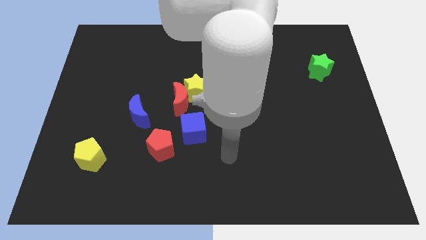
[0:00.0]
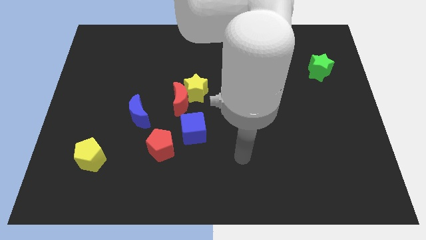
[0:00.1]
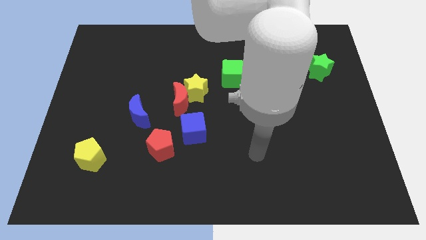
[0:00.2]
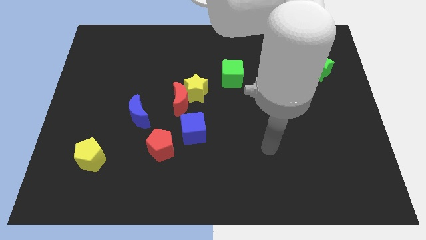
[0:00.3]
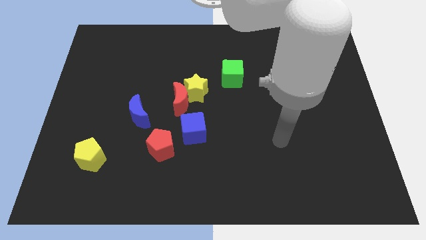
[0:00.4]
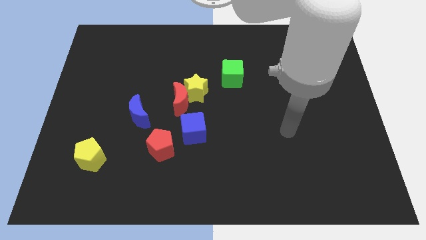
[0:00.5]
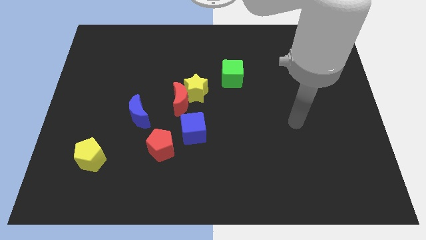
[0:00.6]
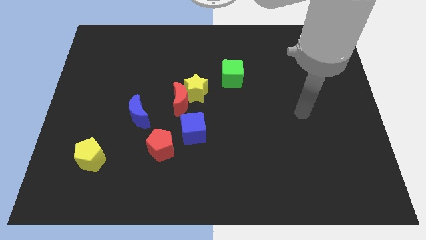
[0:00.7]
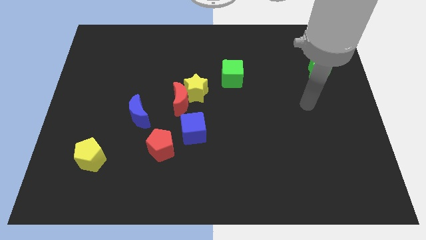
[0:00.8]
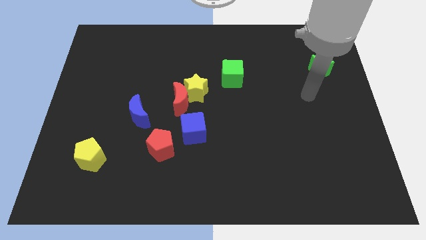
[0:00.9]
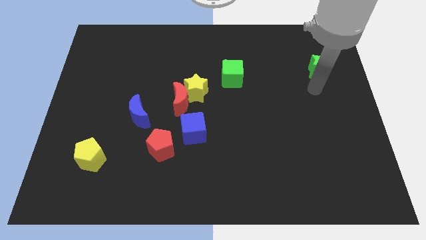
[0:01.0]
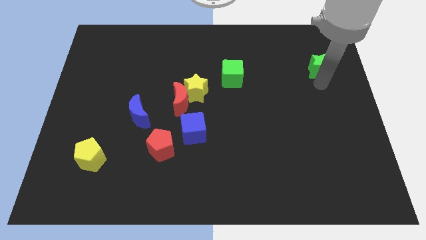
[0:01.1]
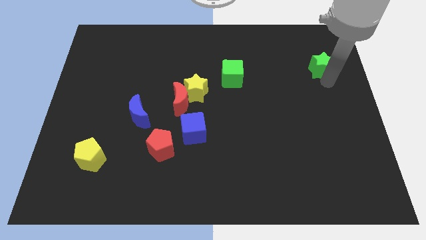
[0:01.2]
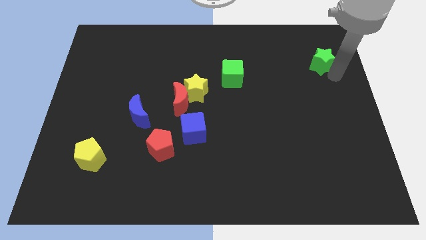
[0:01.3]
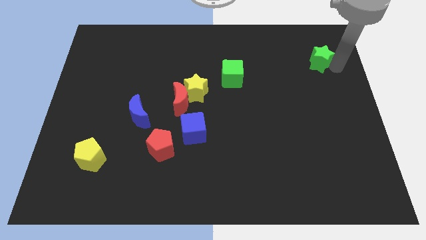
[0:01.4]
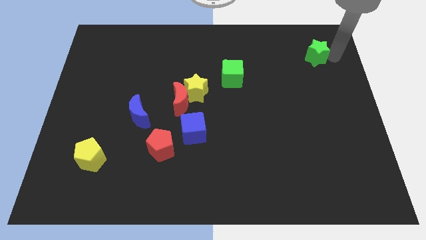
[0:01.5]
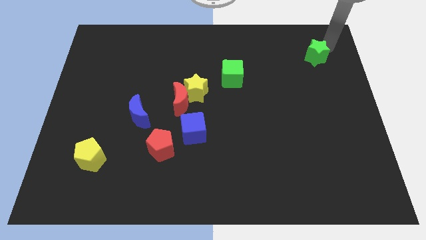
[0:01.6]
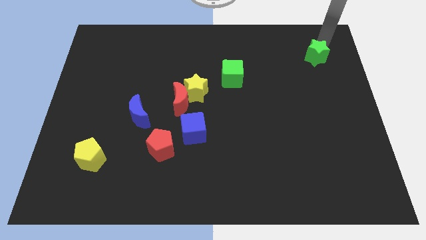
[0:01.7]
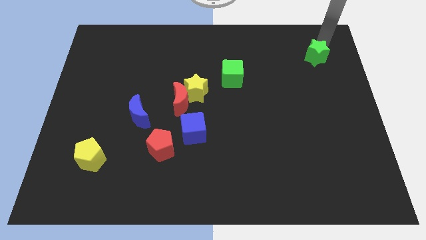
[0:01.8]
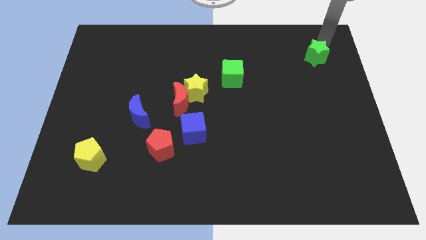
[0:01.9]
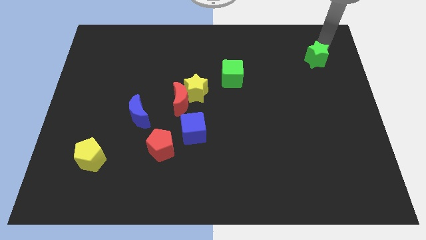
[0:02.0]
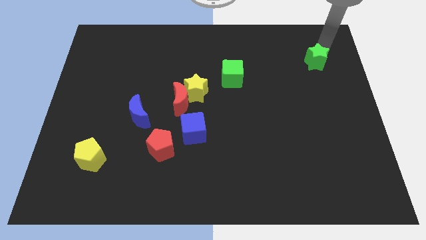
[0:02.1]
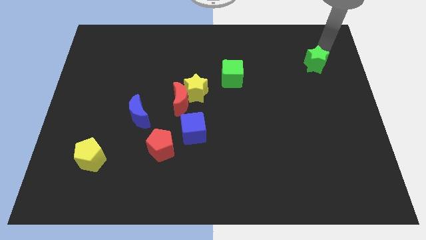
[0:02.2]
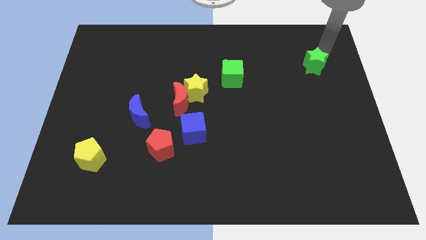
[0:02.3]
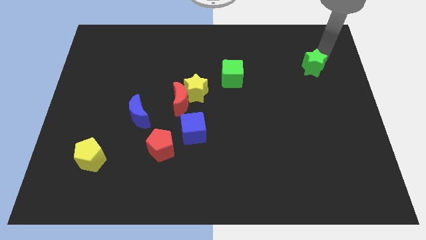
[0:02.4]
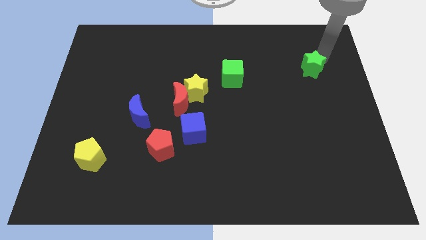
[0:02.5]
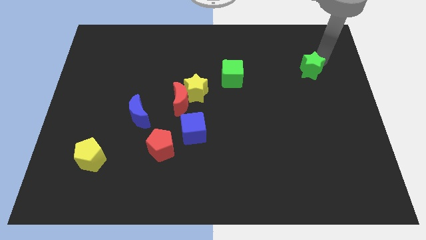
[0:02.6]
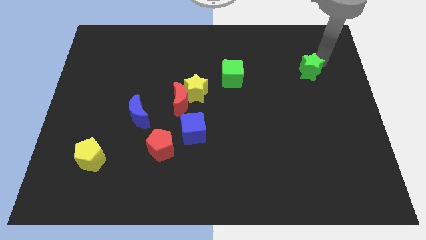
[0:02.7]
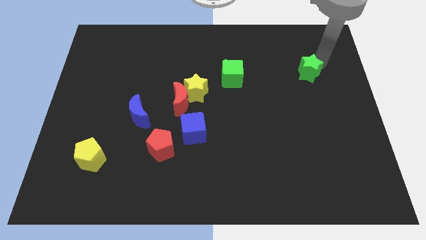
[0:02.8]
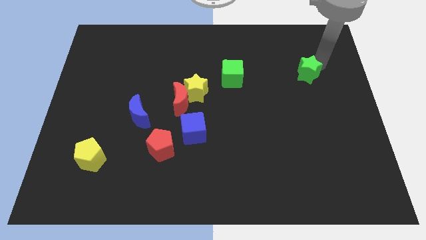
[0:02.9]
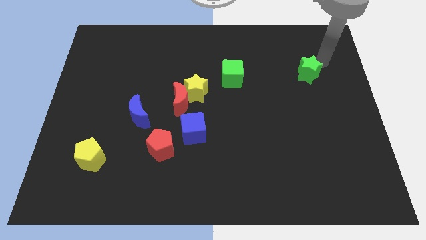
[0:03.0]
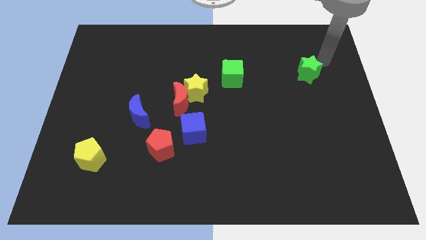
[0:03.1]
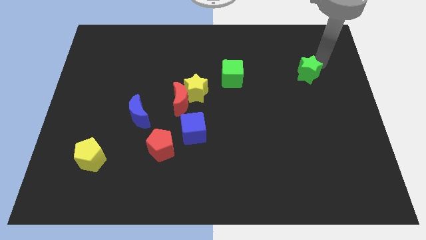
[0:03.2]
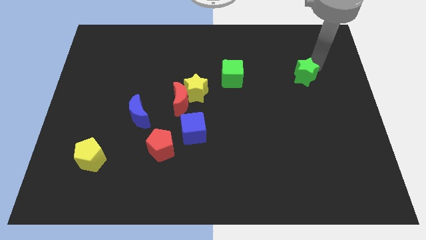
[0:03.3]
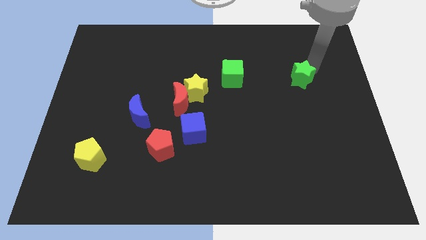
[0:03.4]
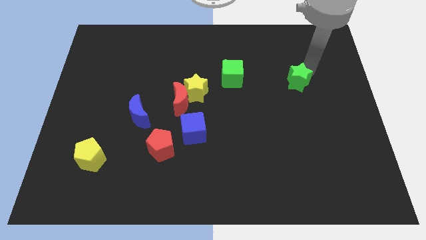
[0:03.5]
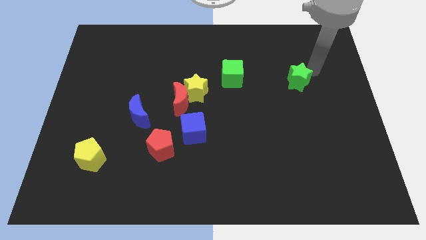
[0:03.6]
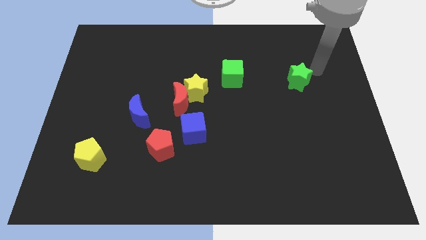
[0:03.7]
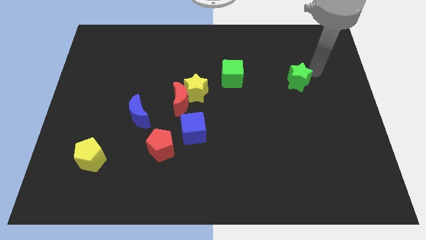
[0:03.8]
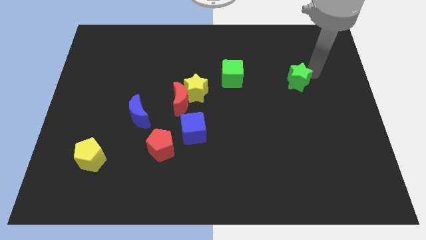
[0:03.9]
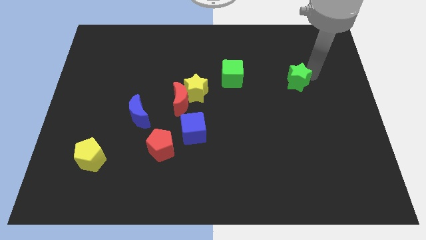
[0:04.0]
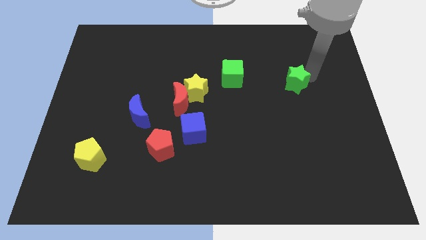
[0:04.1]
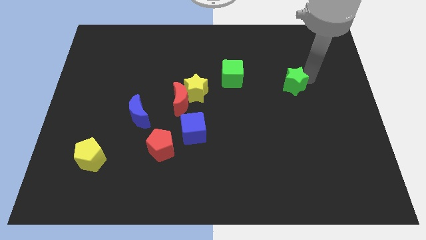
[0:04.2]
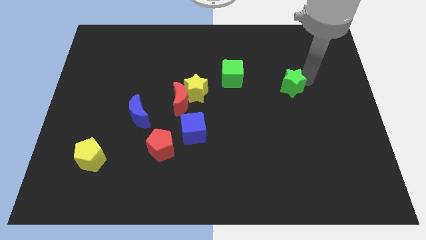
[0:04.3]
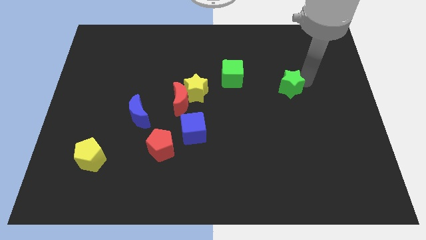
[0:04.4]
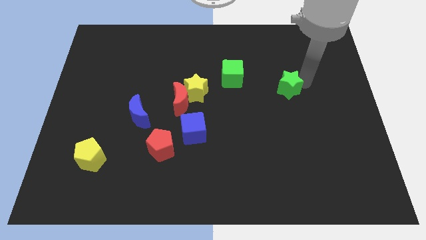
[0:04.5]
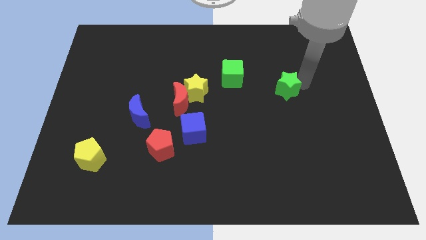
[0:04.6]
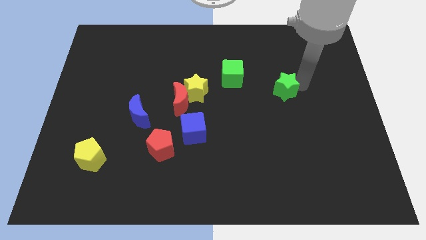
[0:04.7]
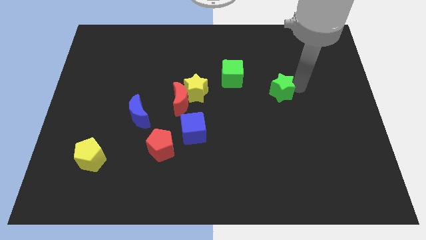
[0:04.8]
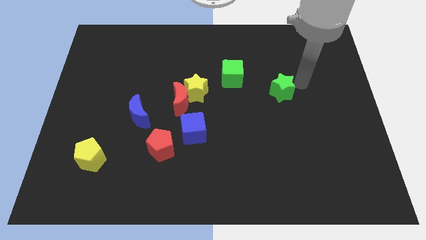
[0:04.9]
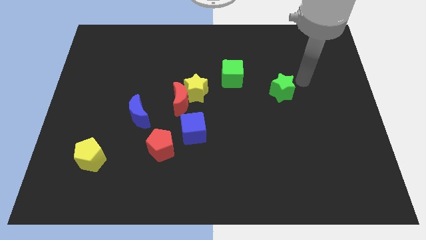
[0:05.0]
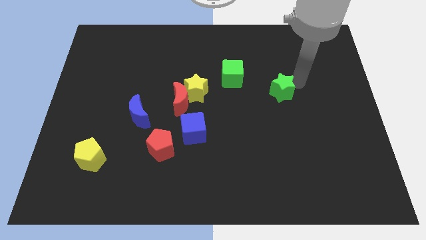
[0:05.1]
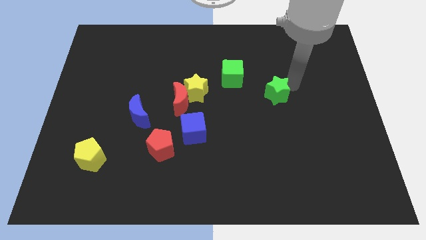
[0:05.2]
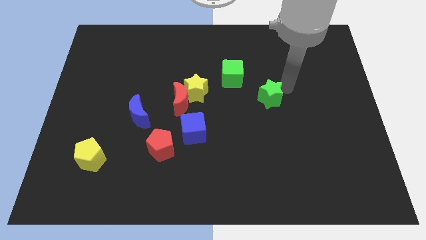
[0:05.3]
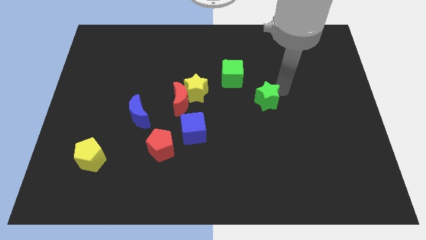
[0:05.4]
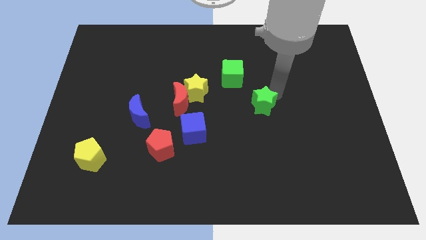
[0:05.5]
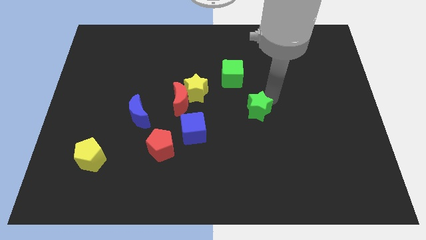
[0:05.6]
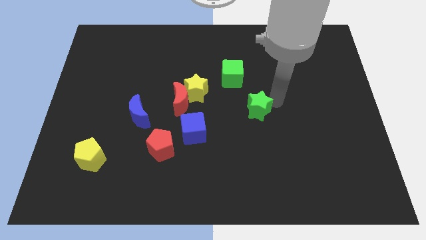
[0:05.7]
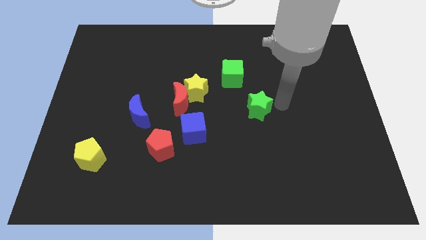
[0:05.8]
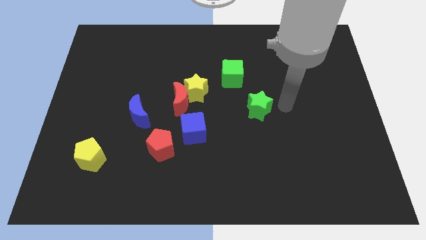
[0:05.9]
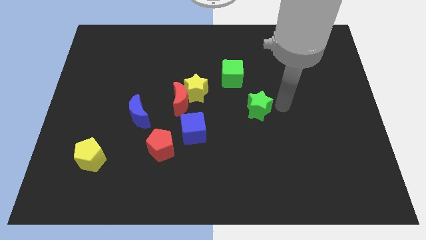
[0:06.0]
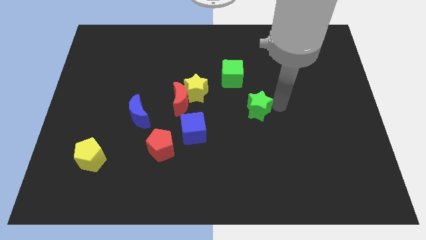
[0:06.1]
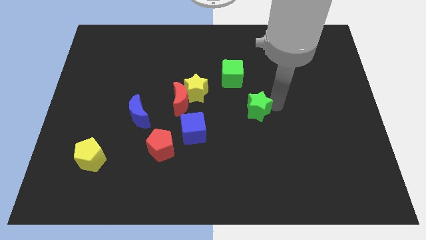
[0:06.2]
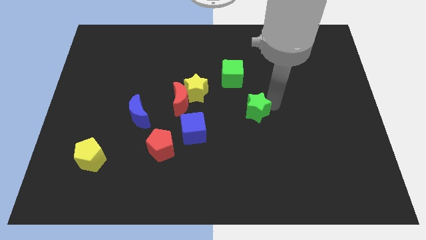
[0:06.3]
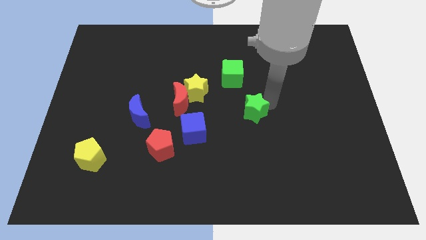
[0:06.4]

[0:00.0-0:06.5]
push the green star below the green cube
